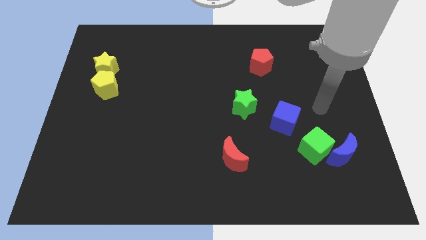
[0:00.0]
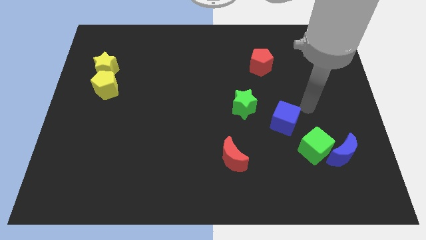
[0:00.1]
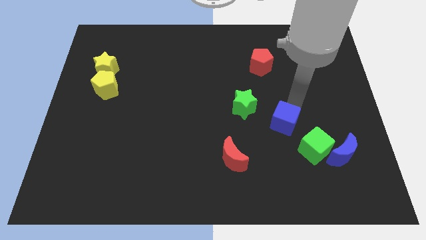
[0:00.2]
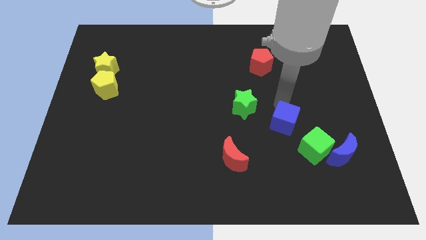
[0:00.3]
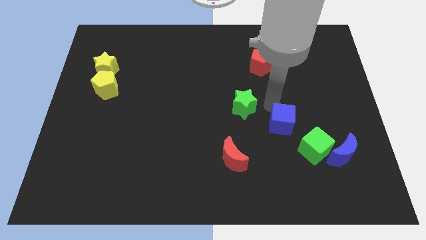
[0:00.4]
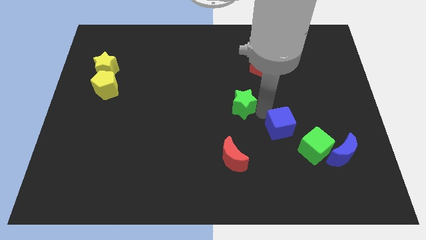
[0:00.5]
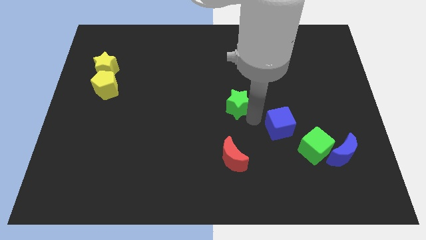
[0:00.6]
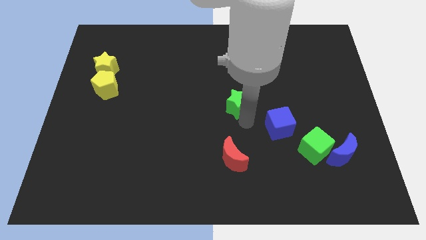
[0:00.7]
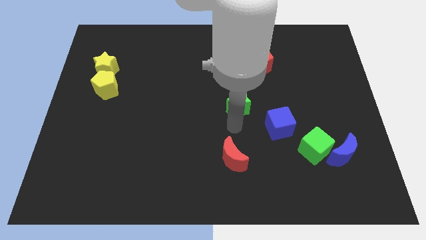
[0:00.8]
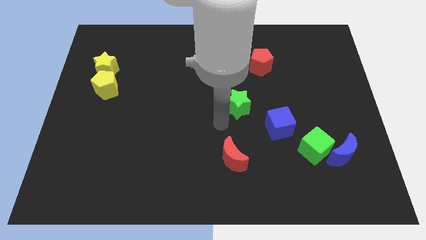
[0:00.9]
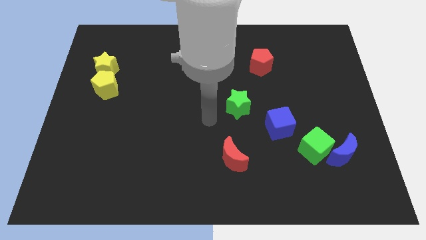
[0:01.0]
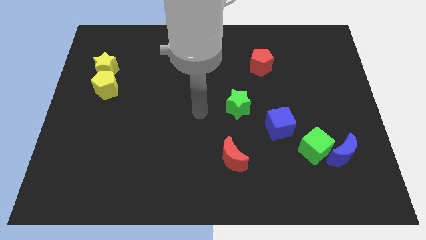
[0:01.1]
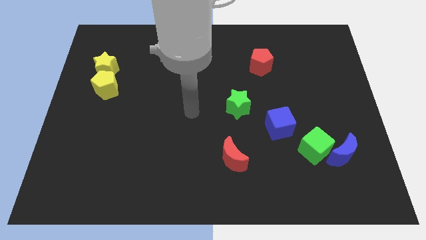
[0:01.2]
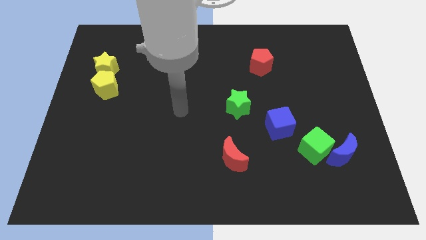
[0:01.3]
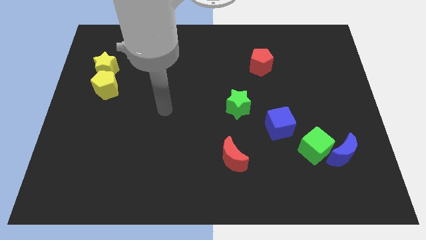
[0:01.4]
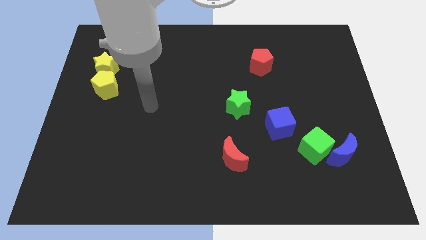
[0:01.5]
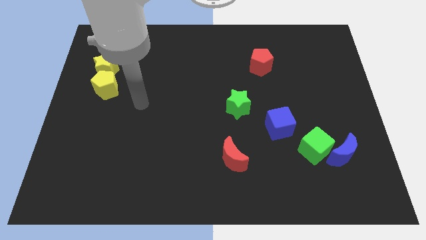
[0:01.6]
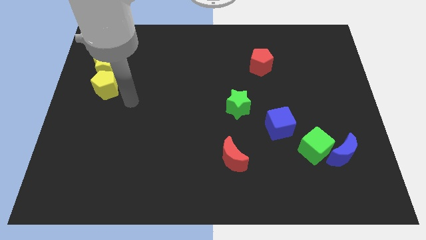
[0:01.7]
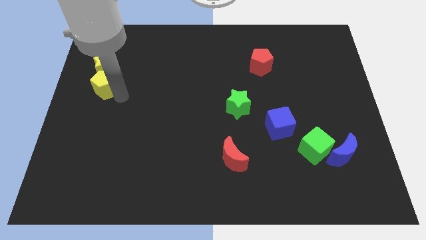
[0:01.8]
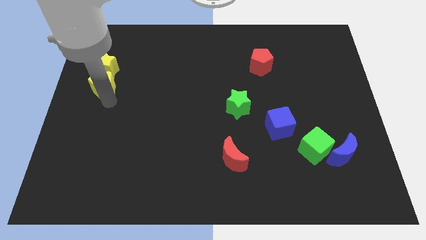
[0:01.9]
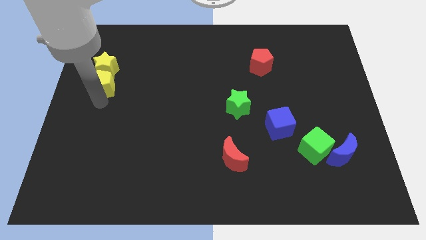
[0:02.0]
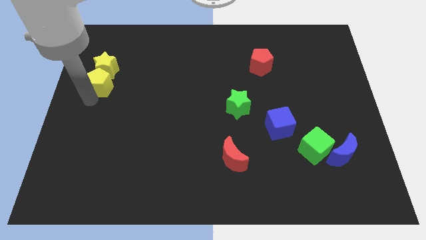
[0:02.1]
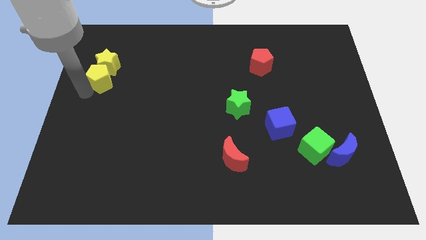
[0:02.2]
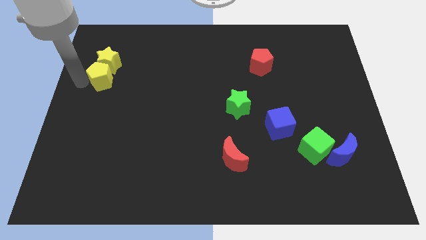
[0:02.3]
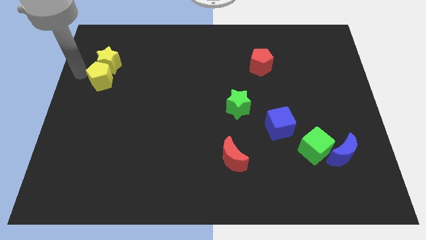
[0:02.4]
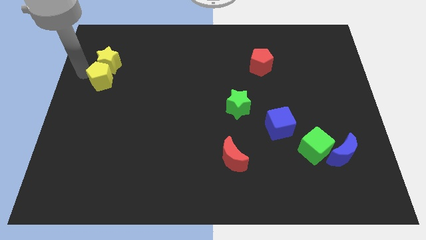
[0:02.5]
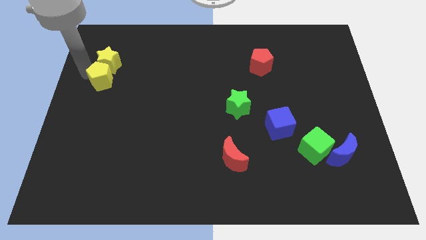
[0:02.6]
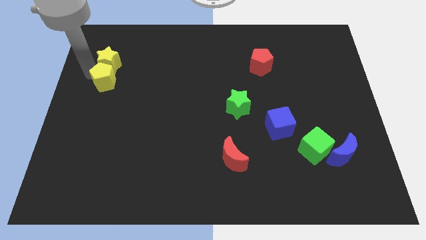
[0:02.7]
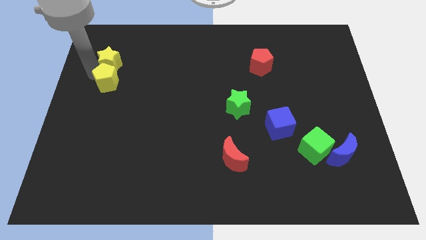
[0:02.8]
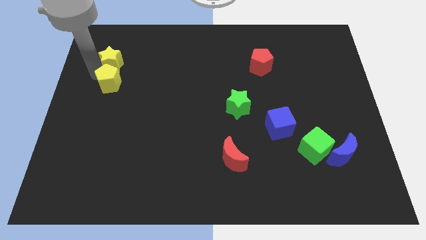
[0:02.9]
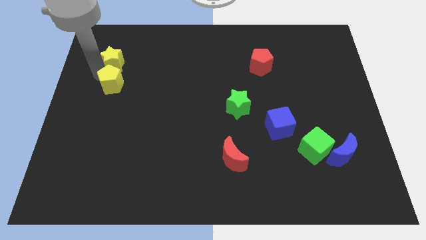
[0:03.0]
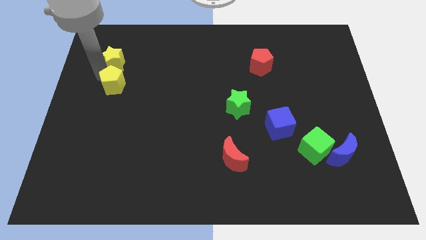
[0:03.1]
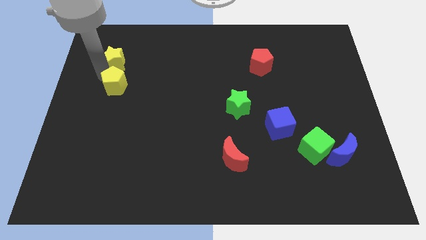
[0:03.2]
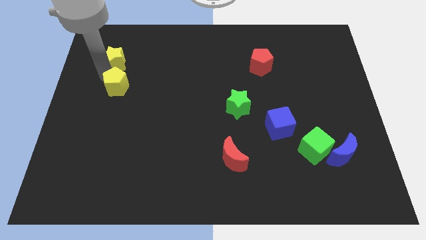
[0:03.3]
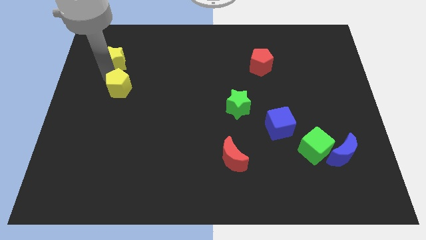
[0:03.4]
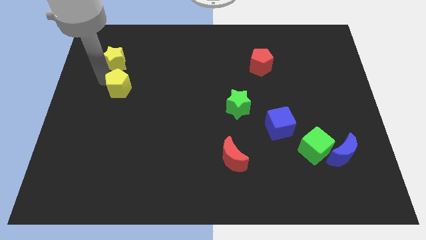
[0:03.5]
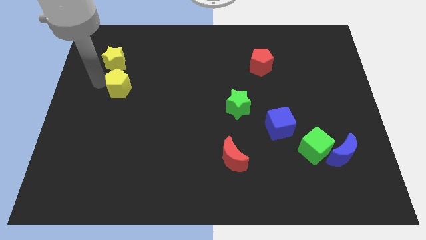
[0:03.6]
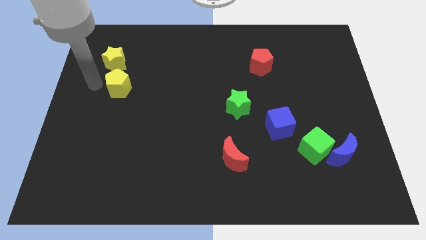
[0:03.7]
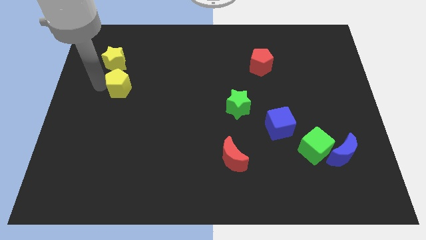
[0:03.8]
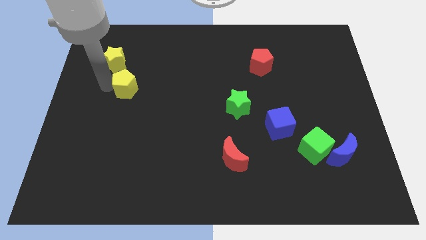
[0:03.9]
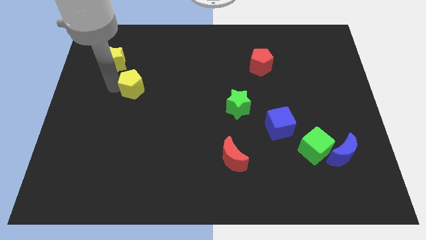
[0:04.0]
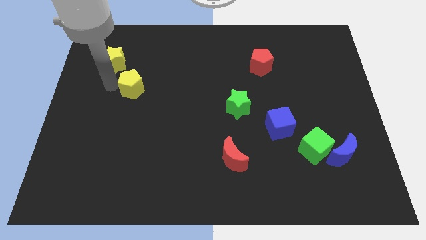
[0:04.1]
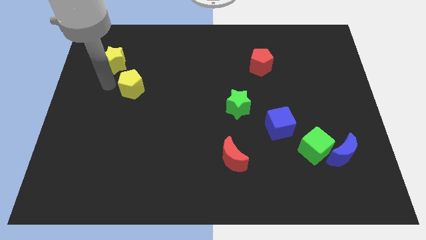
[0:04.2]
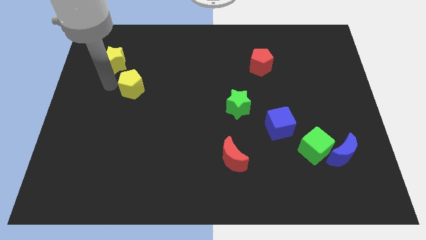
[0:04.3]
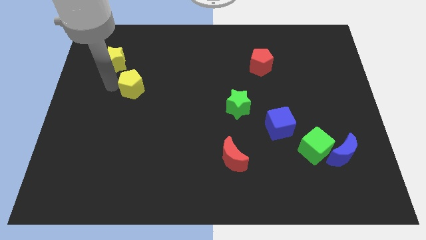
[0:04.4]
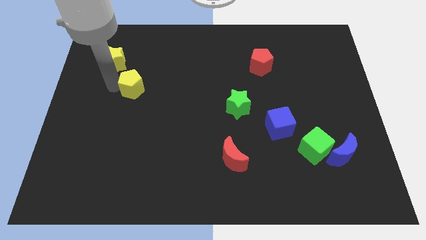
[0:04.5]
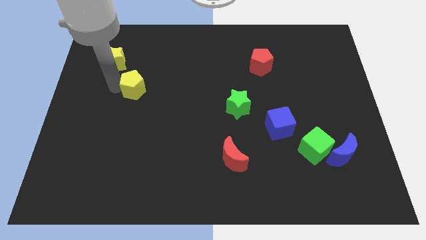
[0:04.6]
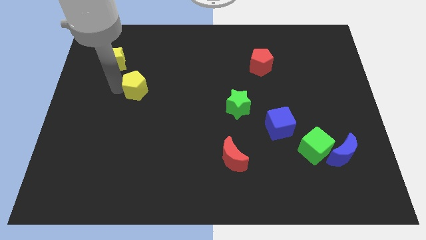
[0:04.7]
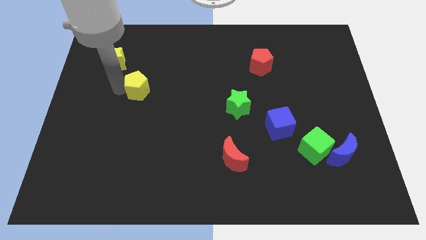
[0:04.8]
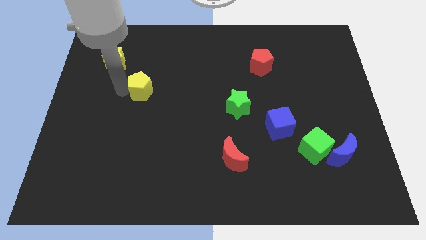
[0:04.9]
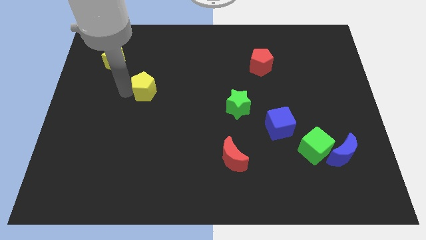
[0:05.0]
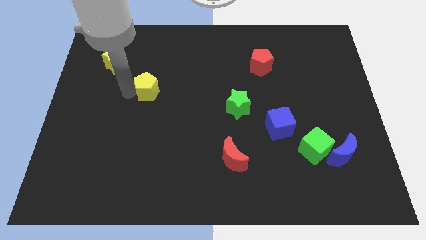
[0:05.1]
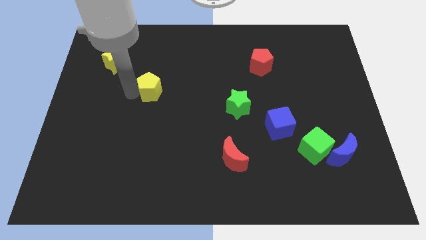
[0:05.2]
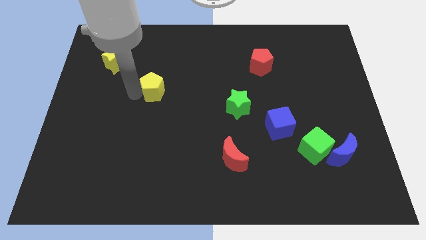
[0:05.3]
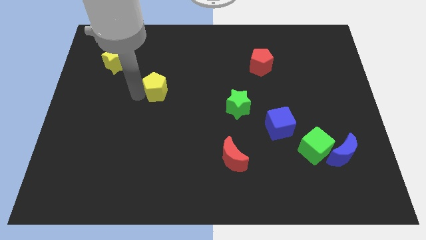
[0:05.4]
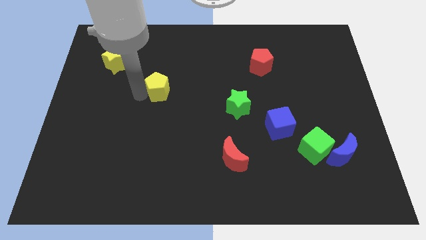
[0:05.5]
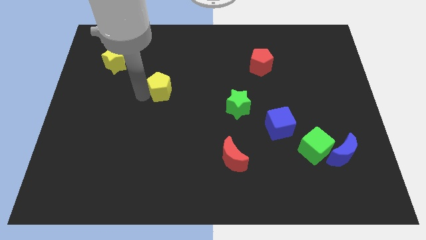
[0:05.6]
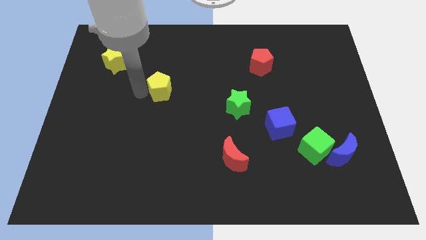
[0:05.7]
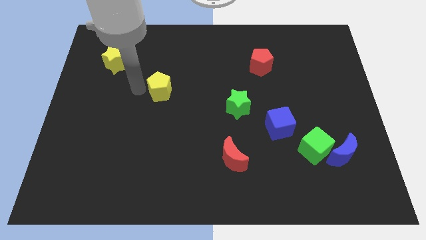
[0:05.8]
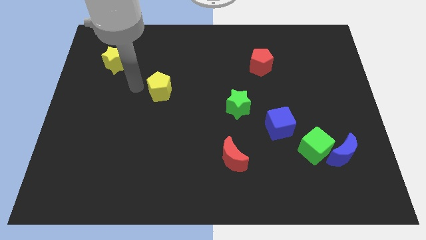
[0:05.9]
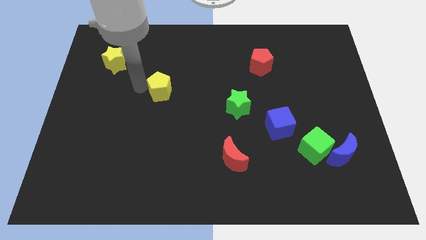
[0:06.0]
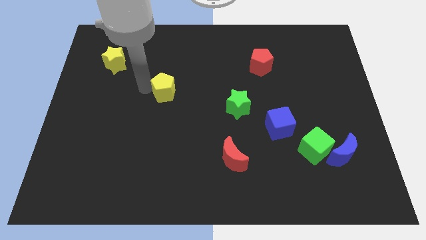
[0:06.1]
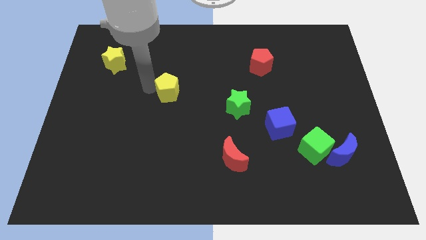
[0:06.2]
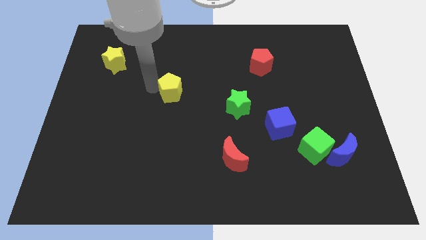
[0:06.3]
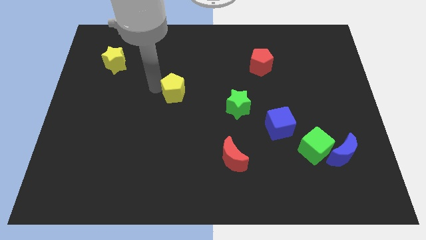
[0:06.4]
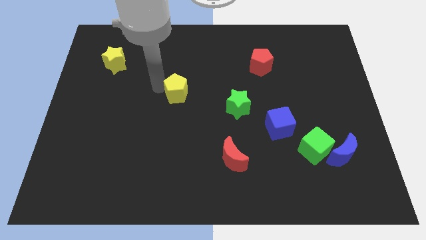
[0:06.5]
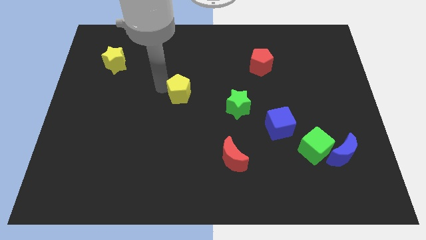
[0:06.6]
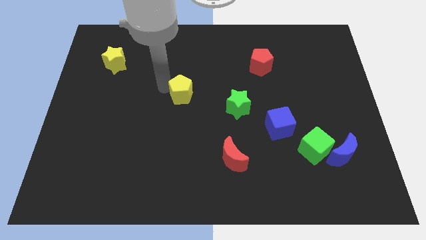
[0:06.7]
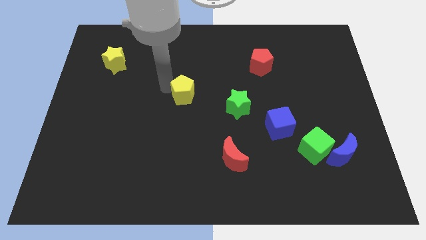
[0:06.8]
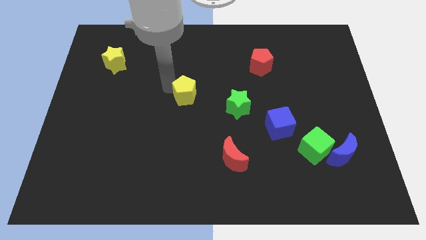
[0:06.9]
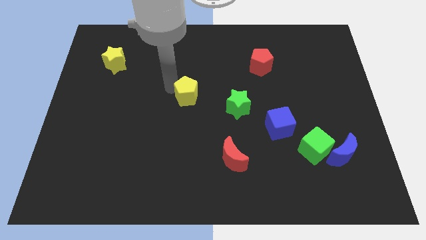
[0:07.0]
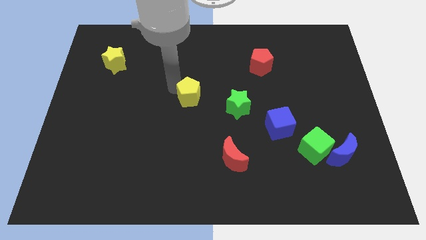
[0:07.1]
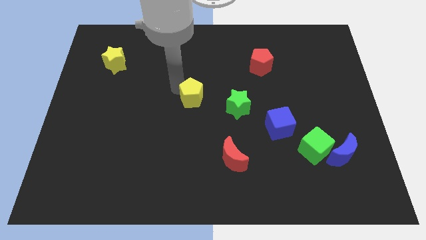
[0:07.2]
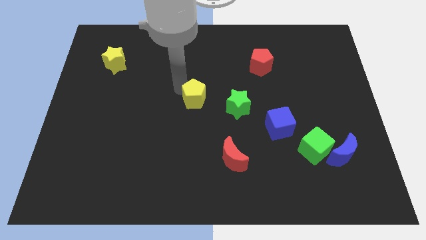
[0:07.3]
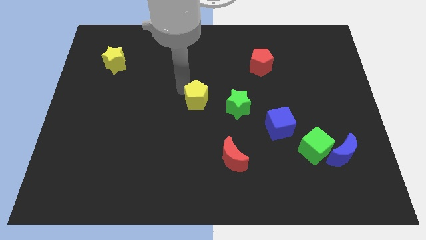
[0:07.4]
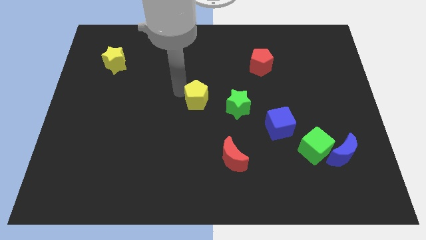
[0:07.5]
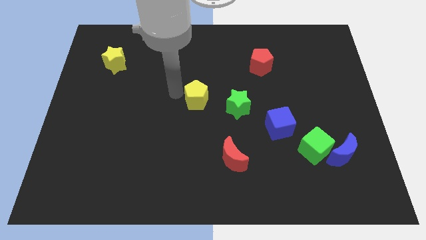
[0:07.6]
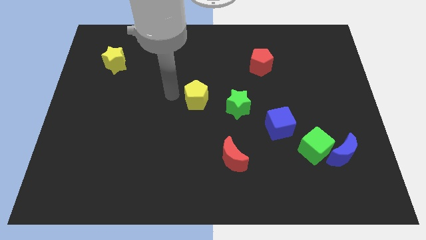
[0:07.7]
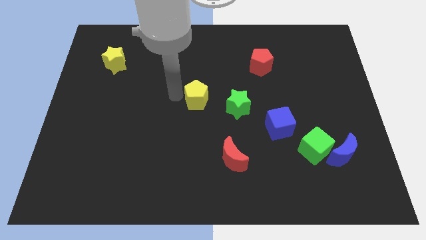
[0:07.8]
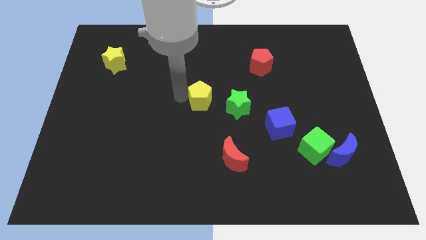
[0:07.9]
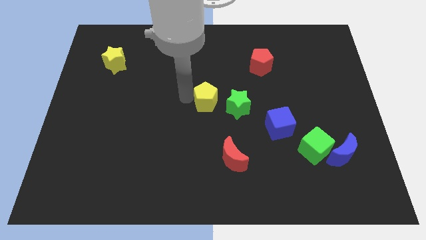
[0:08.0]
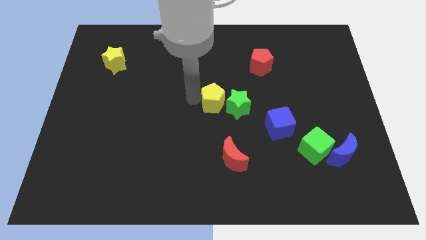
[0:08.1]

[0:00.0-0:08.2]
push the yellow pentagon next to the green star
